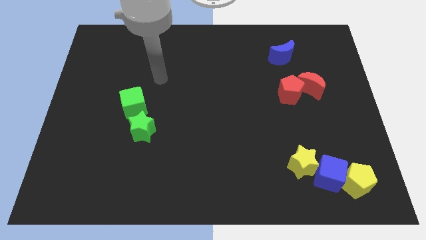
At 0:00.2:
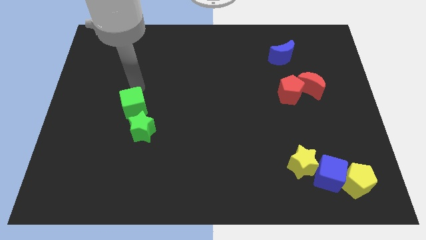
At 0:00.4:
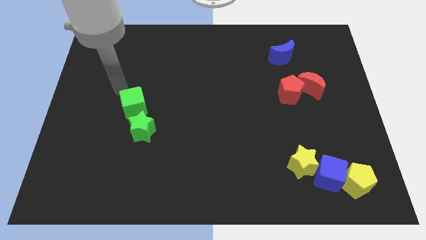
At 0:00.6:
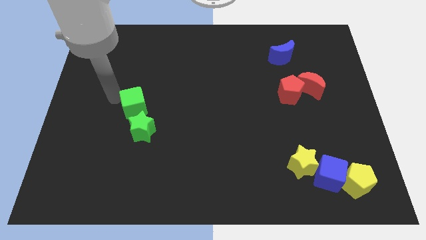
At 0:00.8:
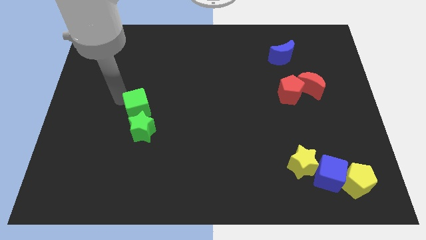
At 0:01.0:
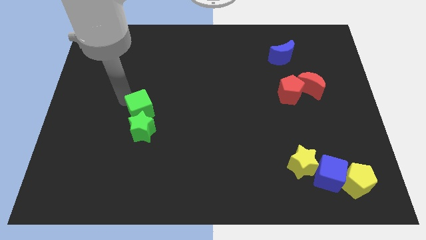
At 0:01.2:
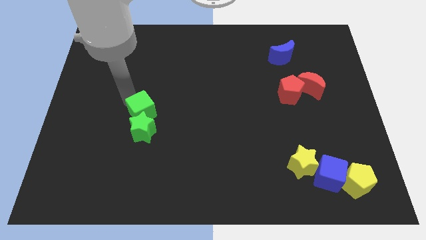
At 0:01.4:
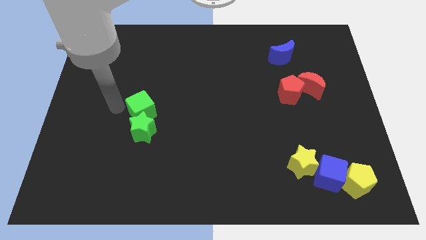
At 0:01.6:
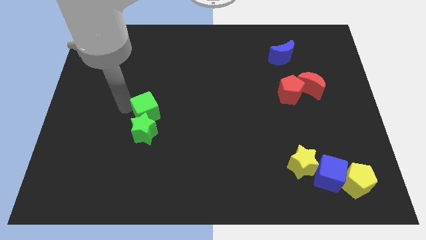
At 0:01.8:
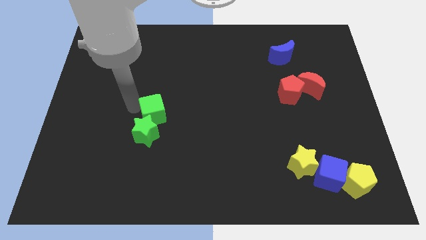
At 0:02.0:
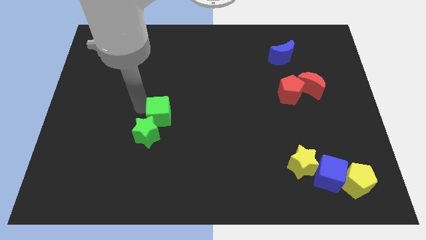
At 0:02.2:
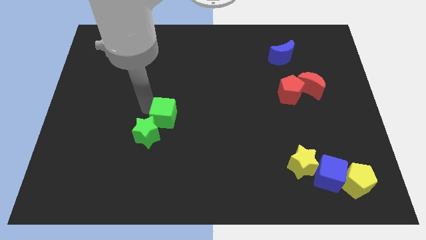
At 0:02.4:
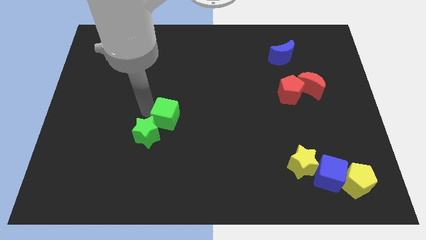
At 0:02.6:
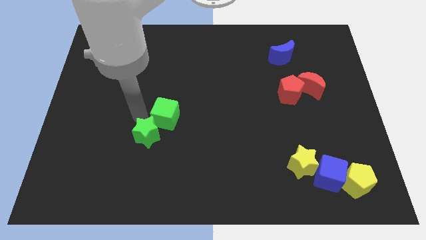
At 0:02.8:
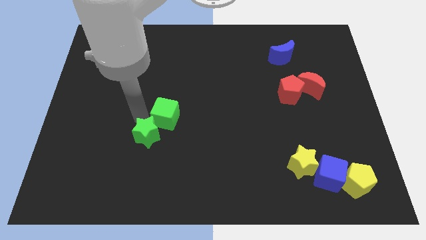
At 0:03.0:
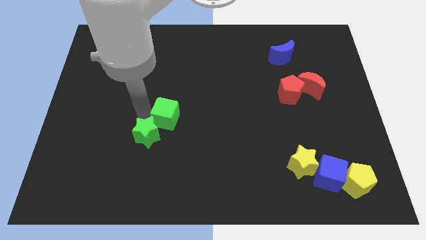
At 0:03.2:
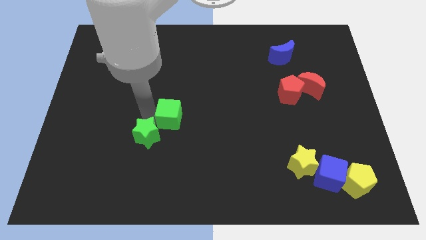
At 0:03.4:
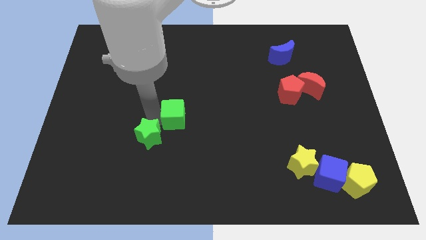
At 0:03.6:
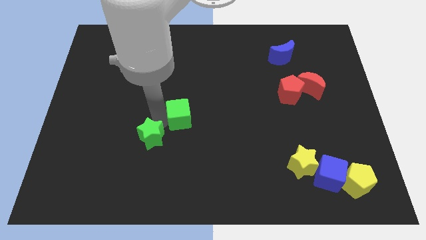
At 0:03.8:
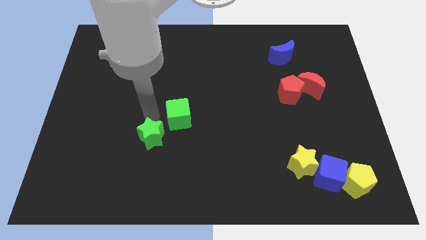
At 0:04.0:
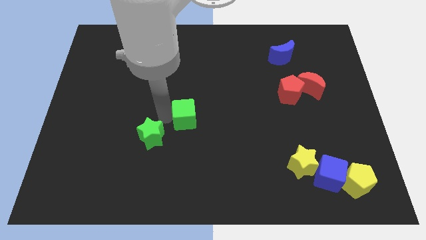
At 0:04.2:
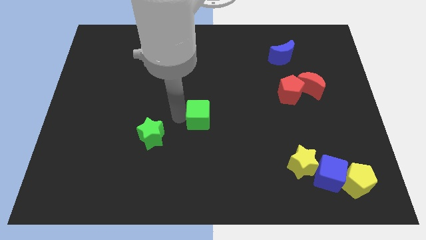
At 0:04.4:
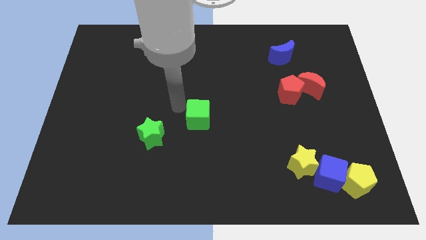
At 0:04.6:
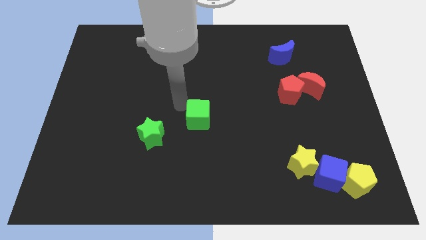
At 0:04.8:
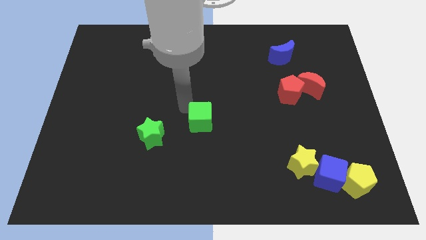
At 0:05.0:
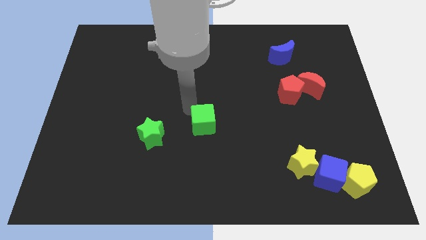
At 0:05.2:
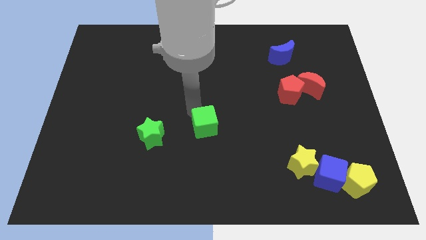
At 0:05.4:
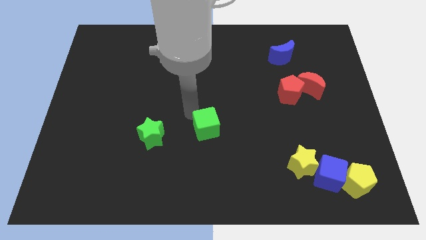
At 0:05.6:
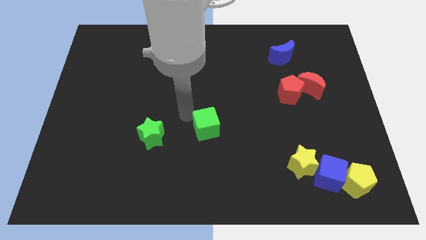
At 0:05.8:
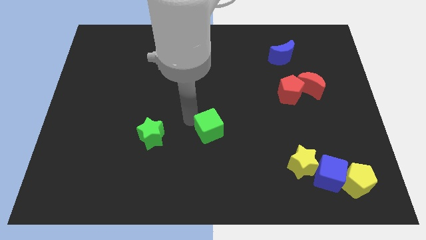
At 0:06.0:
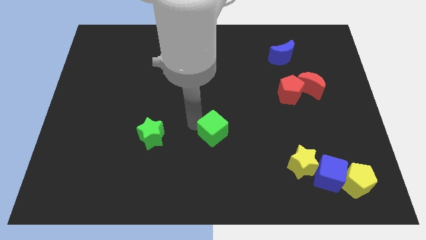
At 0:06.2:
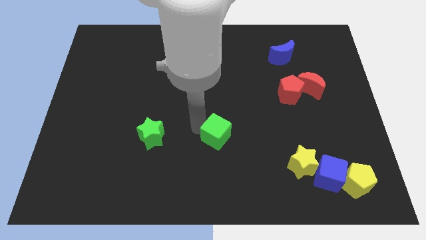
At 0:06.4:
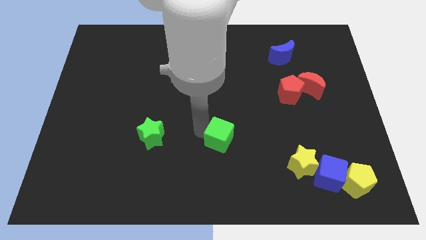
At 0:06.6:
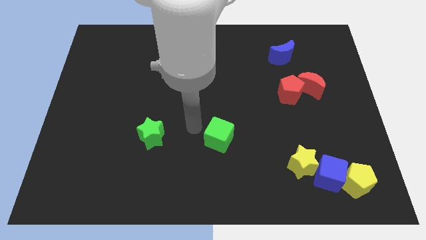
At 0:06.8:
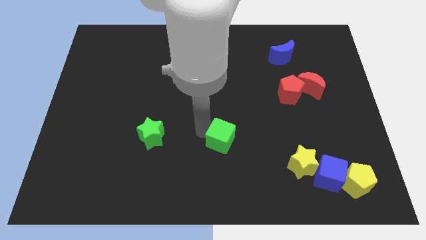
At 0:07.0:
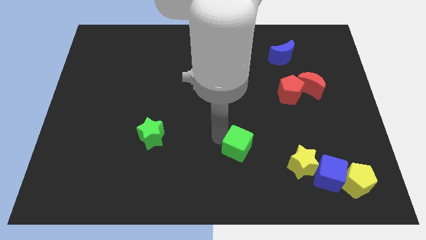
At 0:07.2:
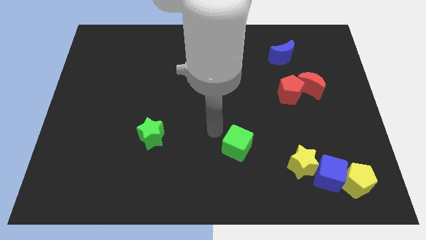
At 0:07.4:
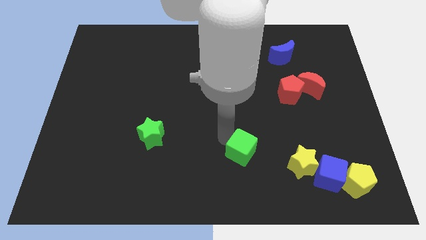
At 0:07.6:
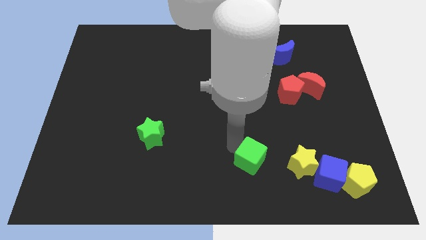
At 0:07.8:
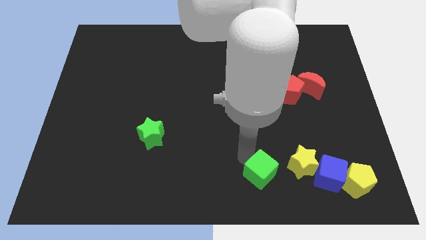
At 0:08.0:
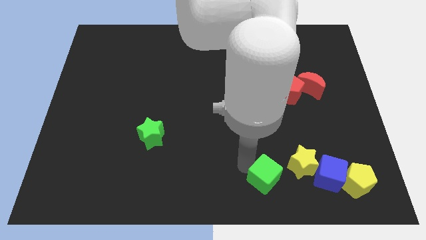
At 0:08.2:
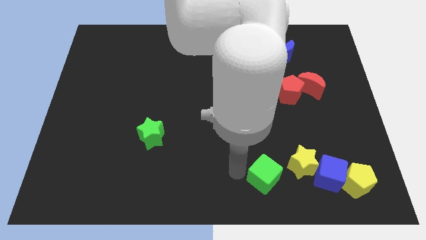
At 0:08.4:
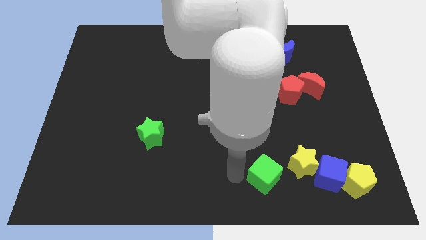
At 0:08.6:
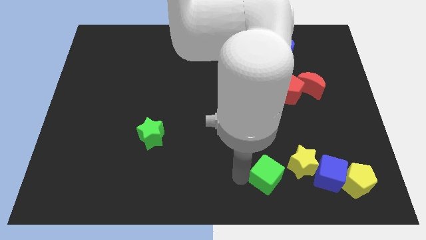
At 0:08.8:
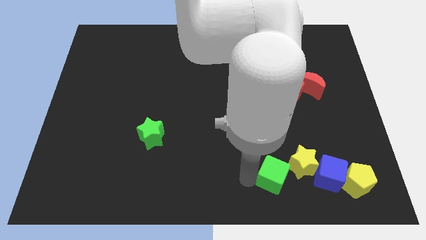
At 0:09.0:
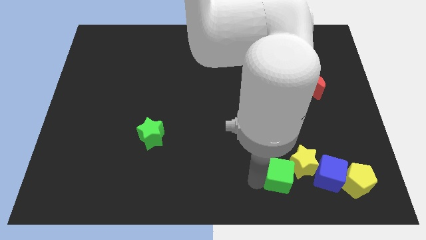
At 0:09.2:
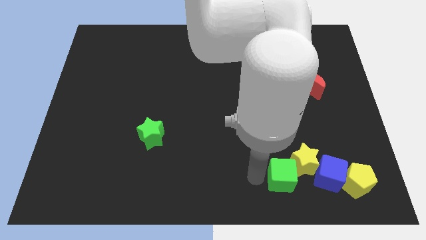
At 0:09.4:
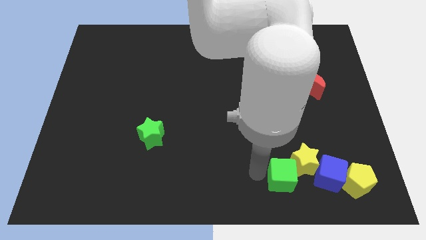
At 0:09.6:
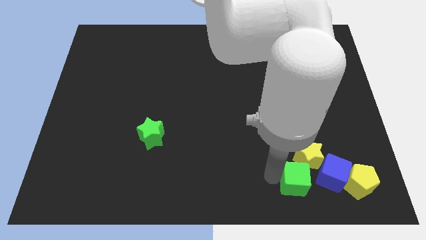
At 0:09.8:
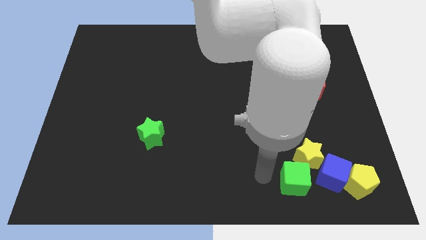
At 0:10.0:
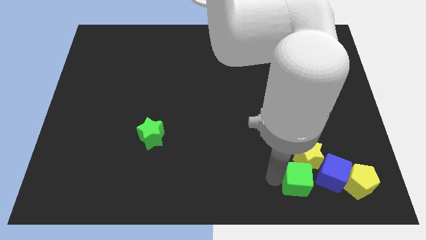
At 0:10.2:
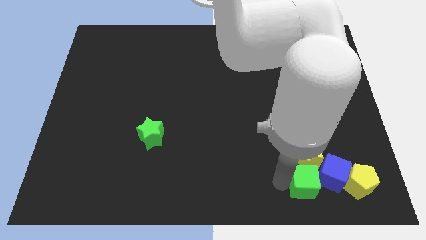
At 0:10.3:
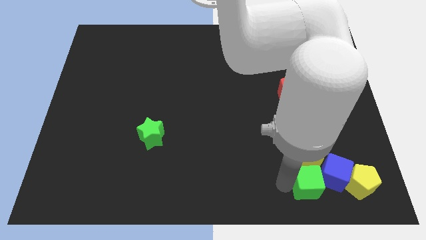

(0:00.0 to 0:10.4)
put the green cube towards the blue cube

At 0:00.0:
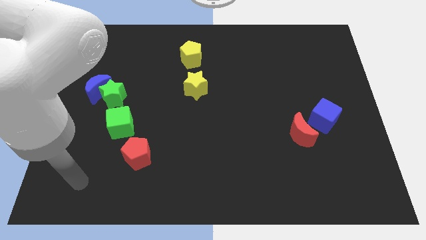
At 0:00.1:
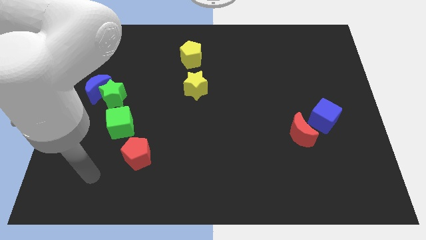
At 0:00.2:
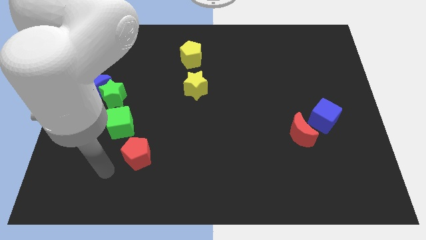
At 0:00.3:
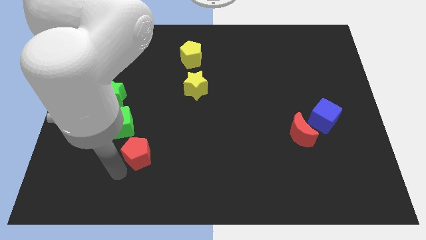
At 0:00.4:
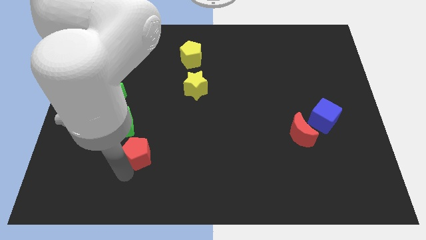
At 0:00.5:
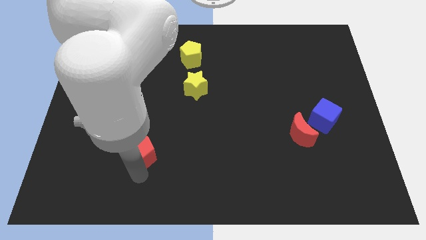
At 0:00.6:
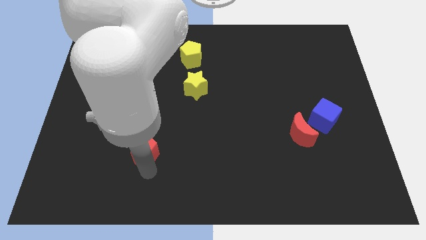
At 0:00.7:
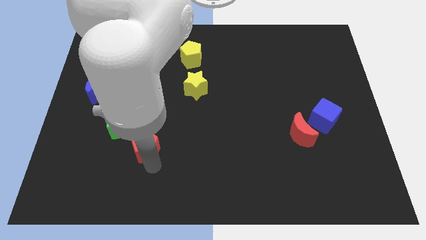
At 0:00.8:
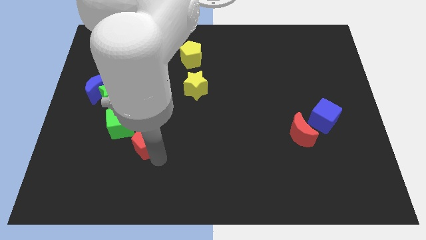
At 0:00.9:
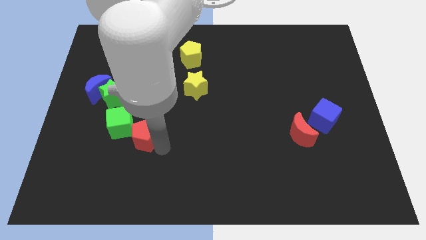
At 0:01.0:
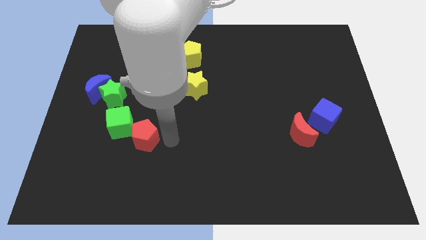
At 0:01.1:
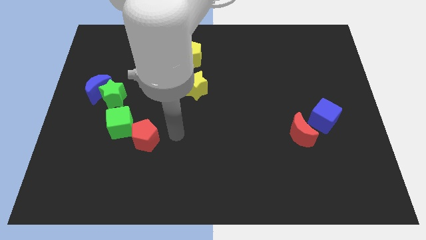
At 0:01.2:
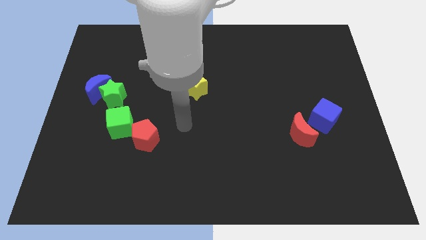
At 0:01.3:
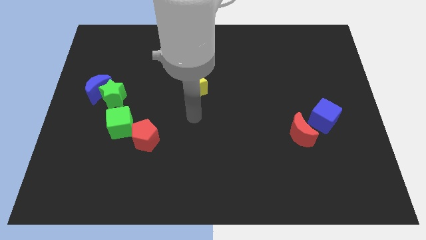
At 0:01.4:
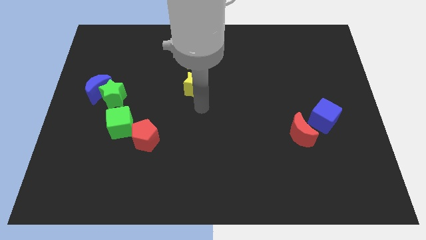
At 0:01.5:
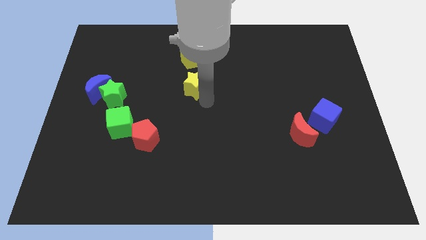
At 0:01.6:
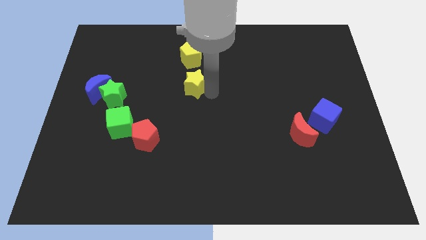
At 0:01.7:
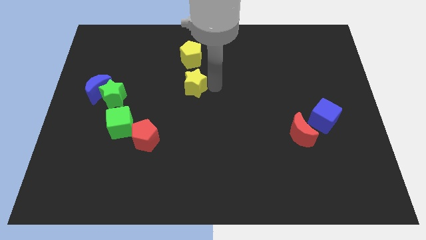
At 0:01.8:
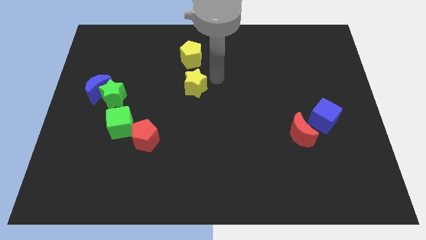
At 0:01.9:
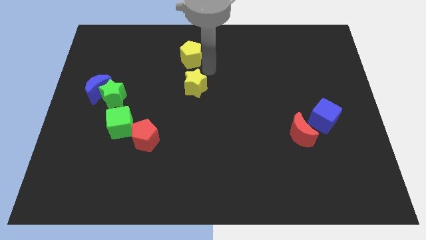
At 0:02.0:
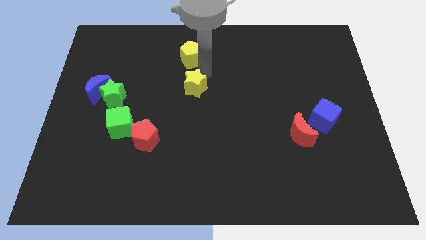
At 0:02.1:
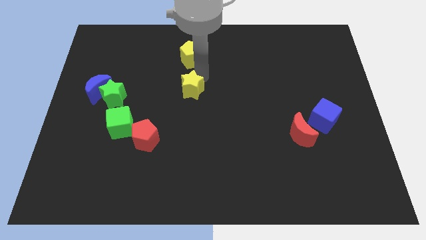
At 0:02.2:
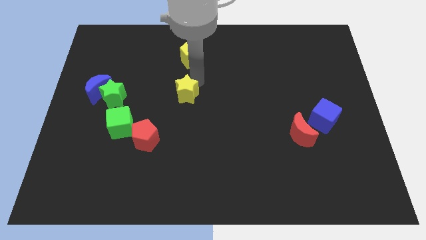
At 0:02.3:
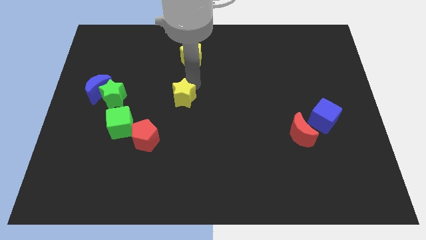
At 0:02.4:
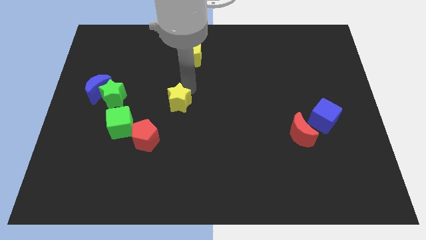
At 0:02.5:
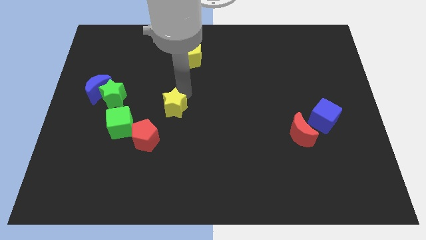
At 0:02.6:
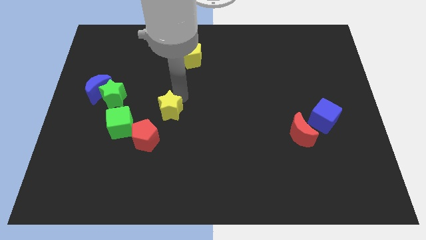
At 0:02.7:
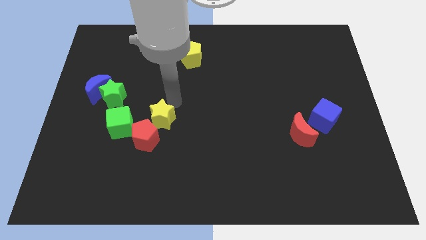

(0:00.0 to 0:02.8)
move the yellow star to the red pentagon
